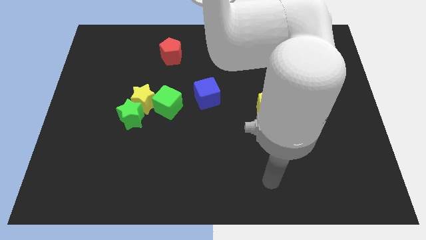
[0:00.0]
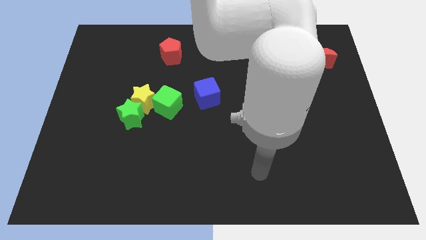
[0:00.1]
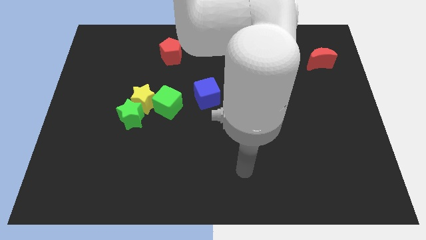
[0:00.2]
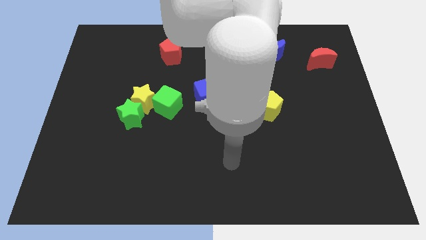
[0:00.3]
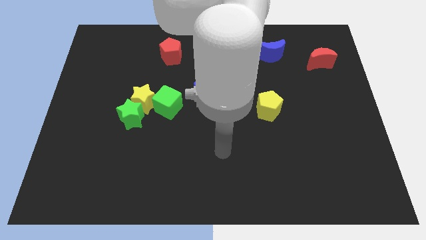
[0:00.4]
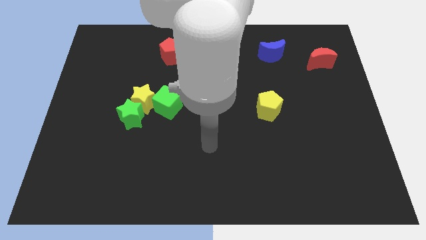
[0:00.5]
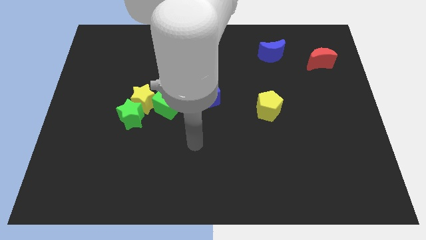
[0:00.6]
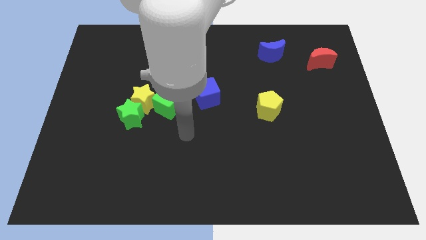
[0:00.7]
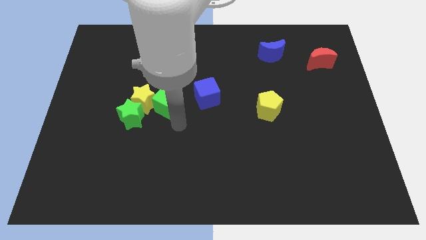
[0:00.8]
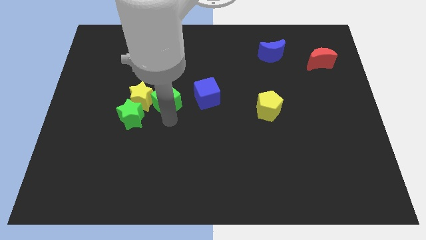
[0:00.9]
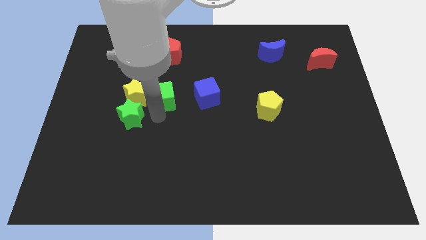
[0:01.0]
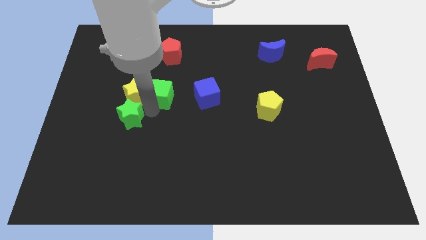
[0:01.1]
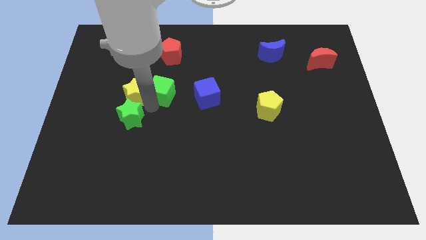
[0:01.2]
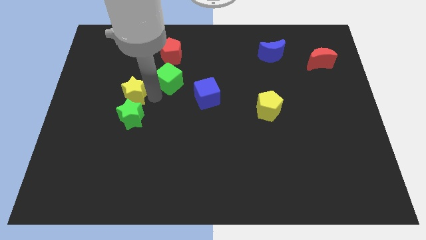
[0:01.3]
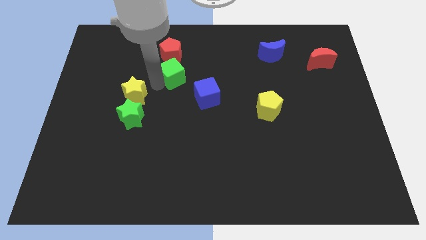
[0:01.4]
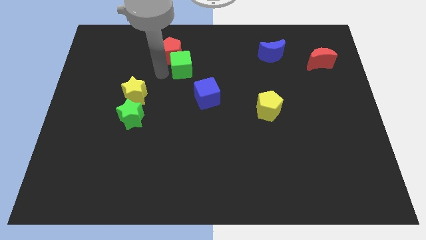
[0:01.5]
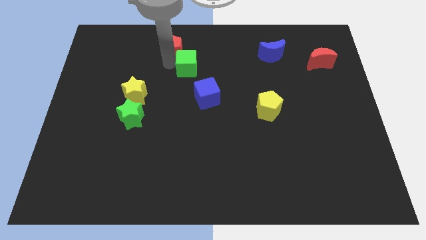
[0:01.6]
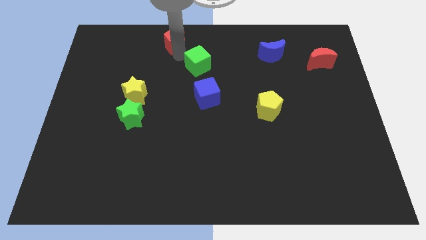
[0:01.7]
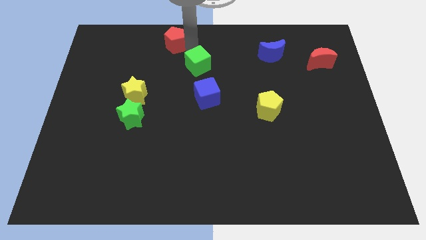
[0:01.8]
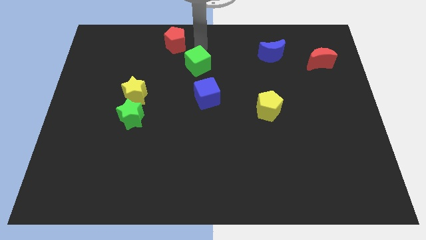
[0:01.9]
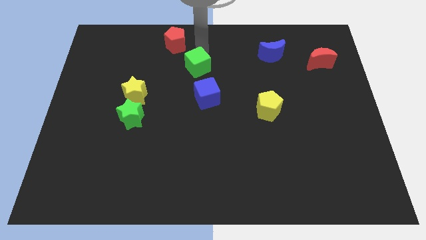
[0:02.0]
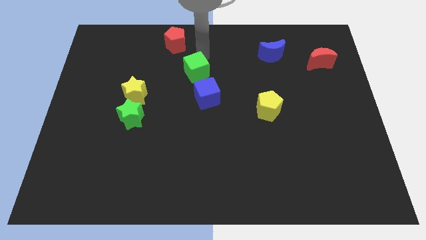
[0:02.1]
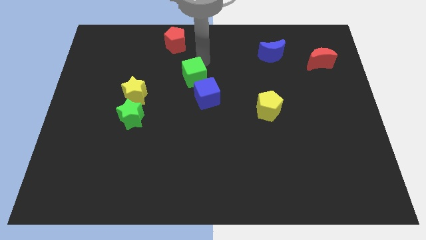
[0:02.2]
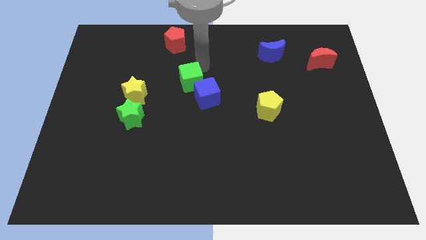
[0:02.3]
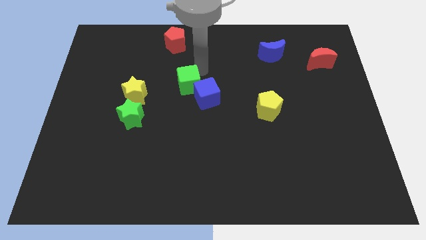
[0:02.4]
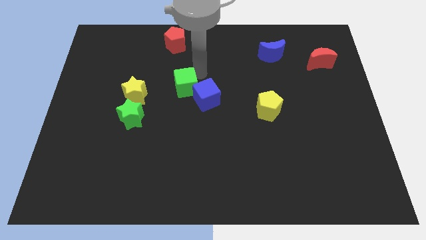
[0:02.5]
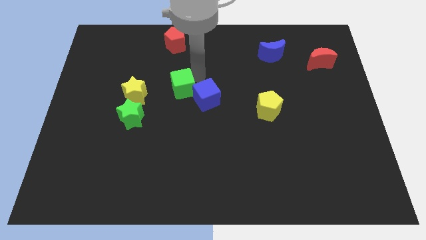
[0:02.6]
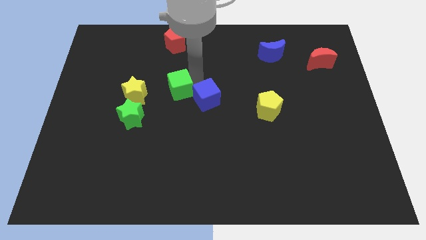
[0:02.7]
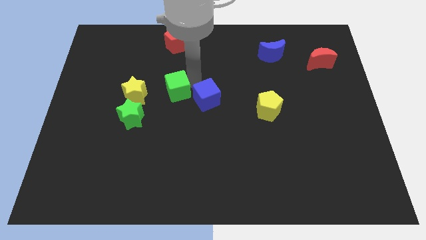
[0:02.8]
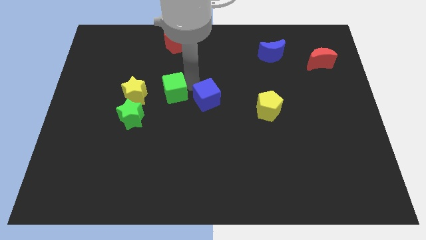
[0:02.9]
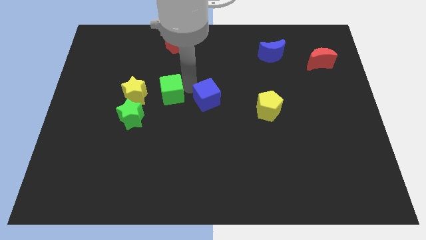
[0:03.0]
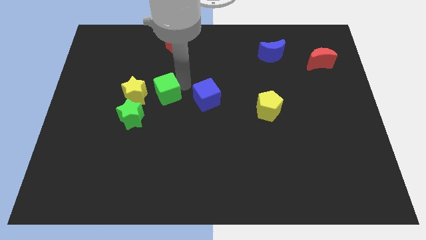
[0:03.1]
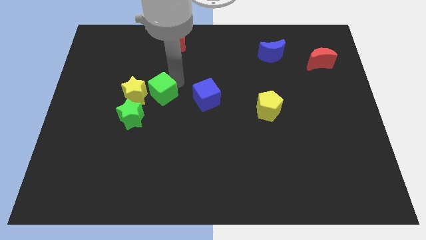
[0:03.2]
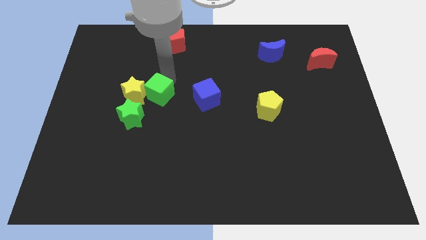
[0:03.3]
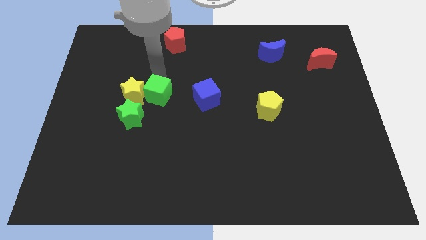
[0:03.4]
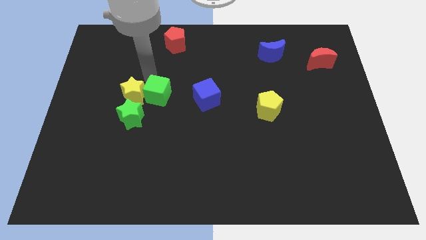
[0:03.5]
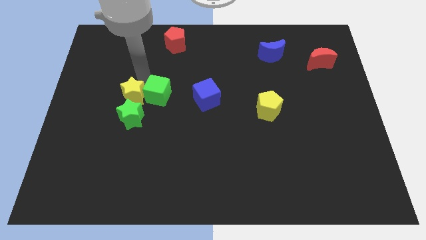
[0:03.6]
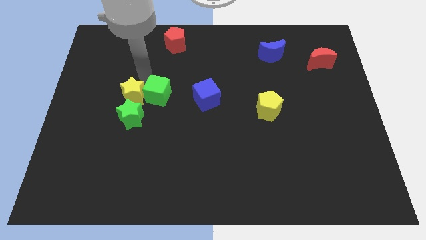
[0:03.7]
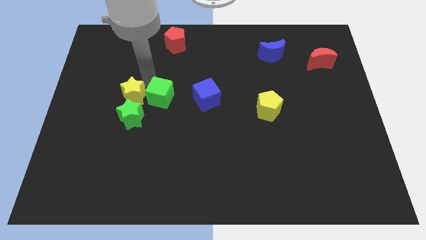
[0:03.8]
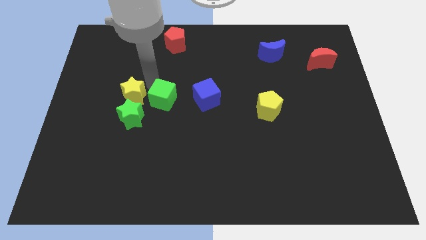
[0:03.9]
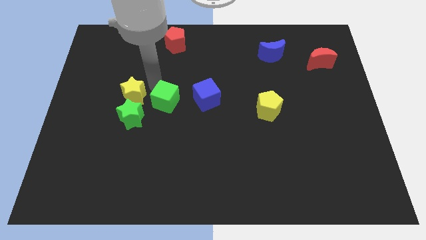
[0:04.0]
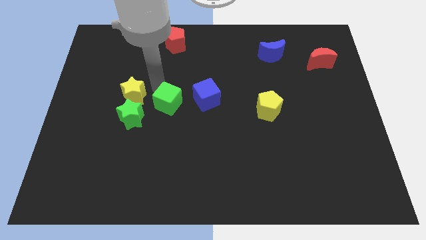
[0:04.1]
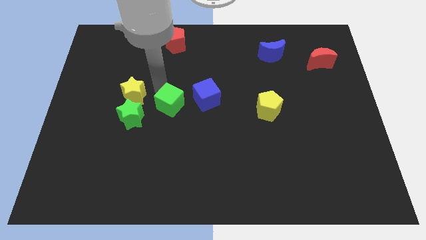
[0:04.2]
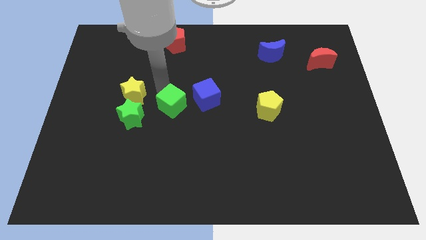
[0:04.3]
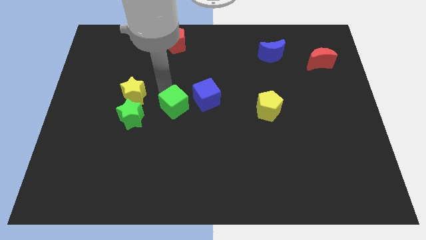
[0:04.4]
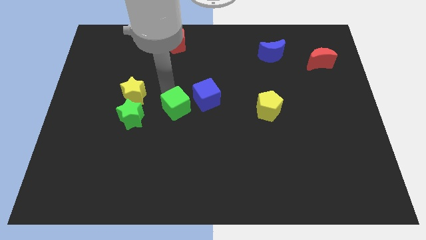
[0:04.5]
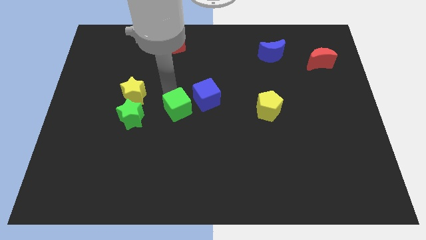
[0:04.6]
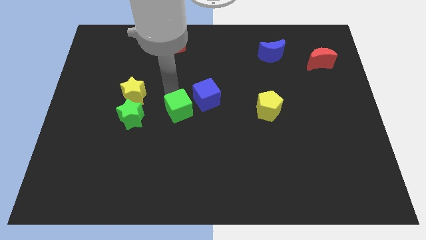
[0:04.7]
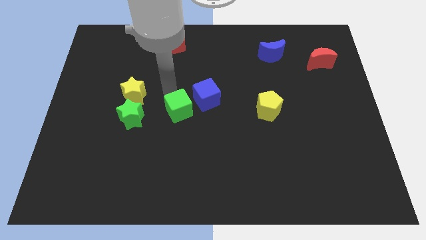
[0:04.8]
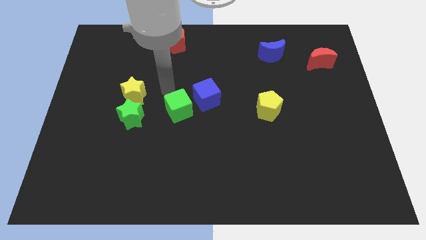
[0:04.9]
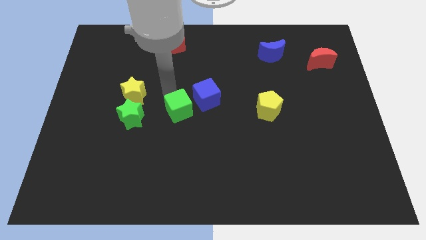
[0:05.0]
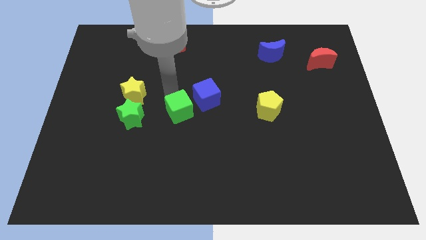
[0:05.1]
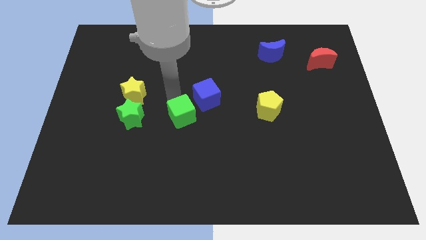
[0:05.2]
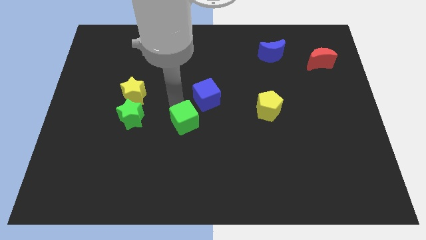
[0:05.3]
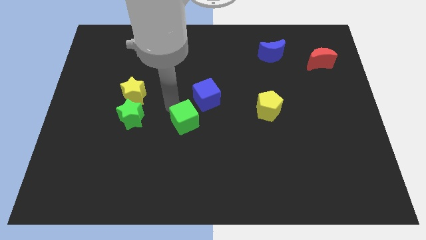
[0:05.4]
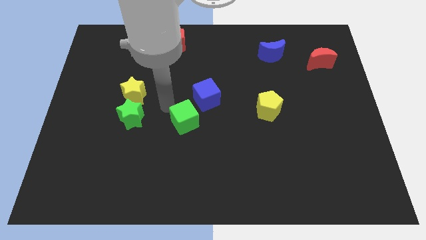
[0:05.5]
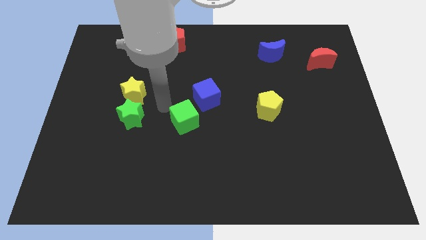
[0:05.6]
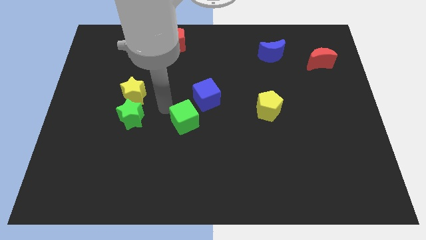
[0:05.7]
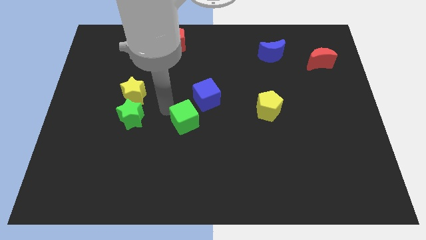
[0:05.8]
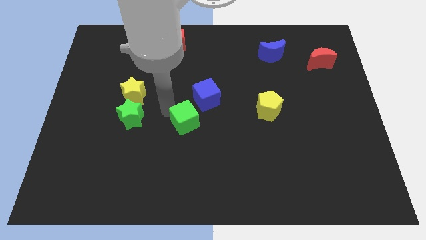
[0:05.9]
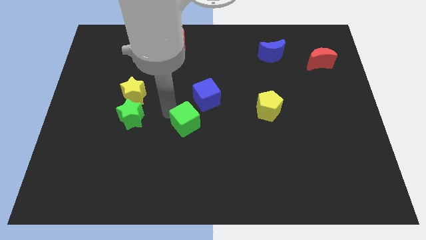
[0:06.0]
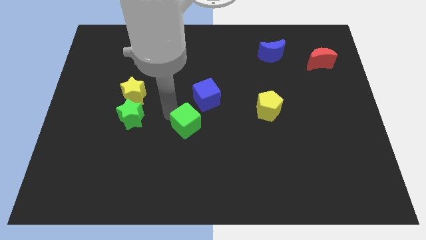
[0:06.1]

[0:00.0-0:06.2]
move the green cube a little bit downwards and right diagonally

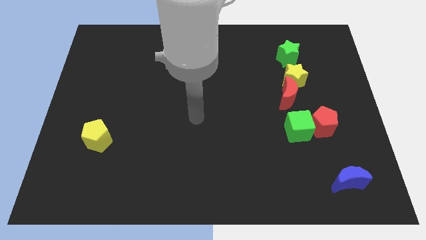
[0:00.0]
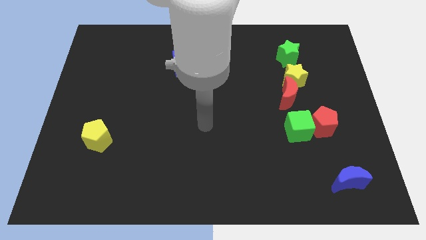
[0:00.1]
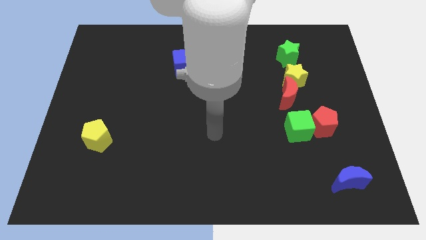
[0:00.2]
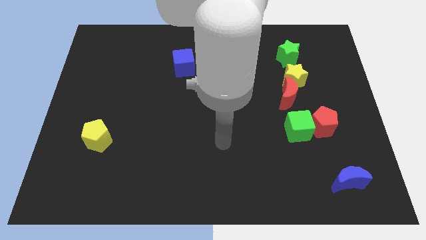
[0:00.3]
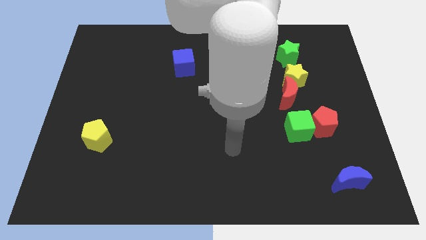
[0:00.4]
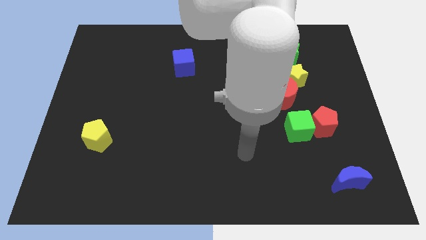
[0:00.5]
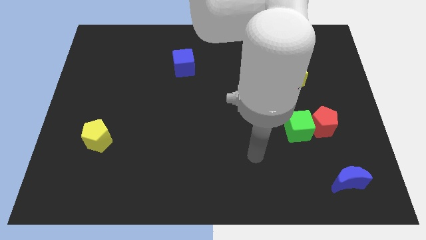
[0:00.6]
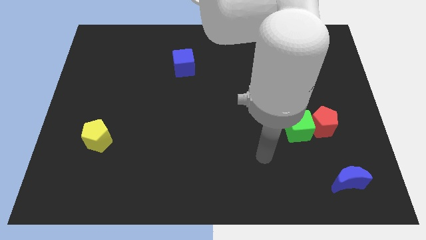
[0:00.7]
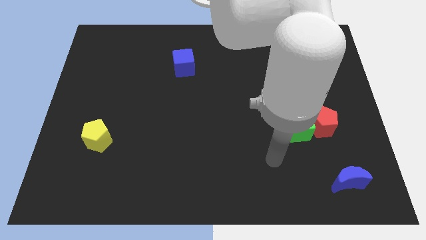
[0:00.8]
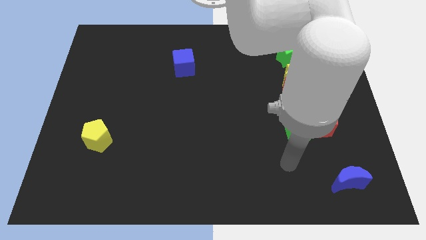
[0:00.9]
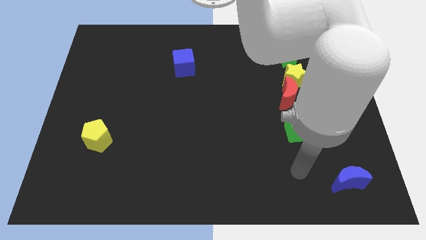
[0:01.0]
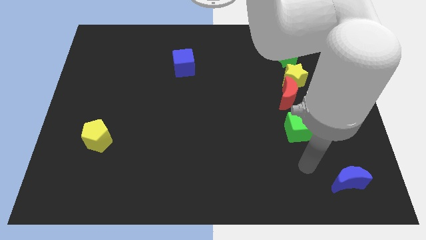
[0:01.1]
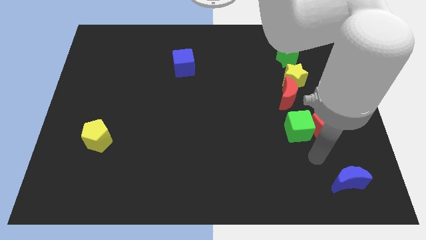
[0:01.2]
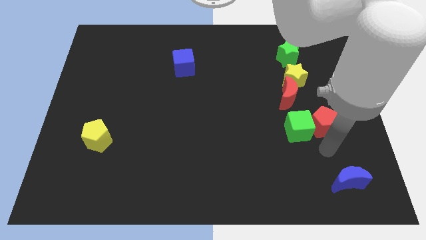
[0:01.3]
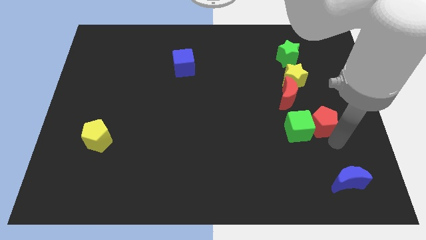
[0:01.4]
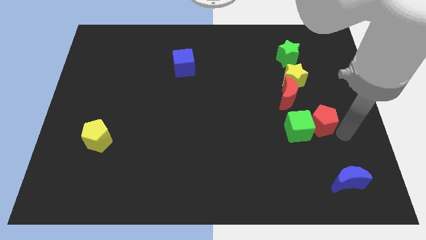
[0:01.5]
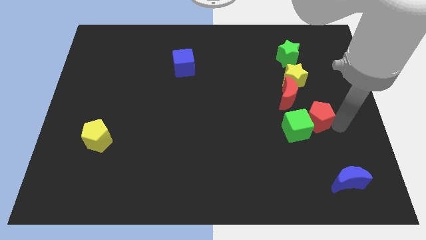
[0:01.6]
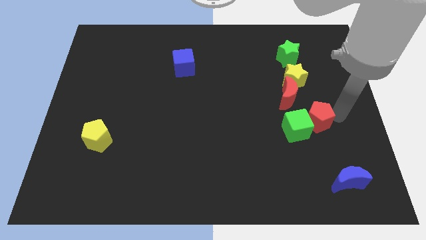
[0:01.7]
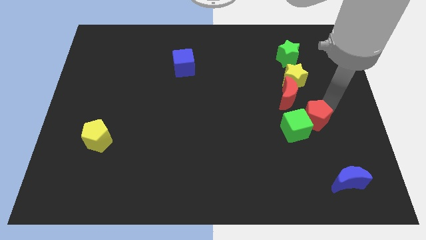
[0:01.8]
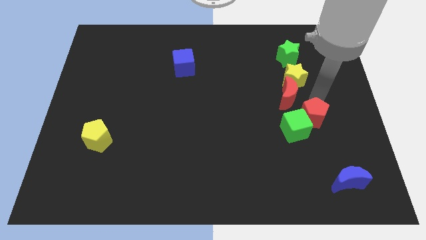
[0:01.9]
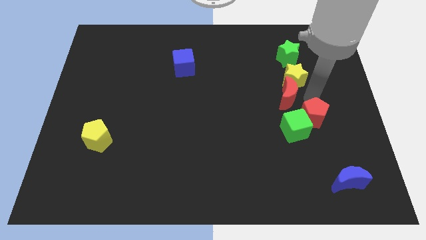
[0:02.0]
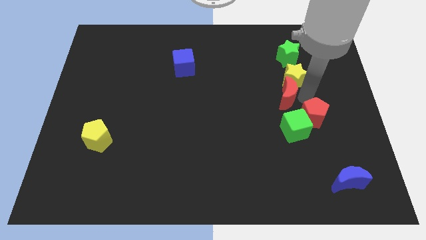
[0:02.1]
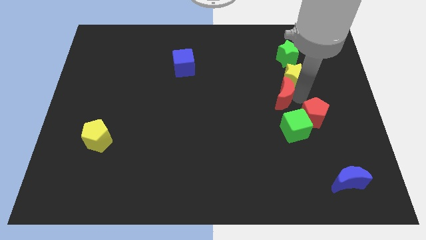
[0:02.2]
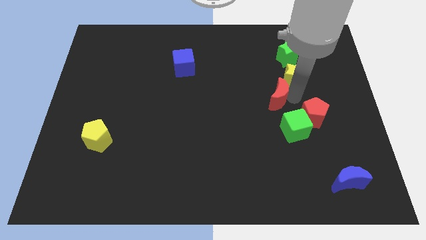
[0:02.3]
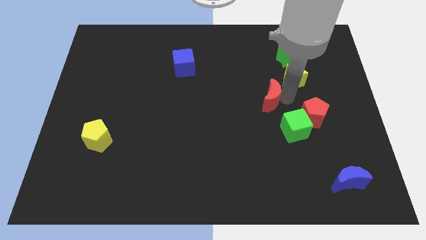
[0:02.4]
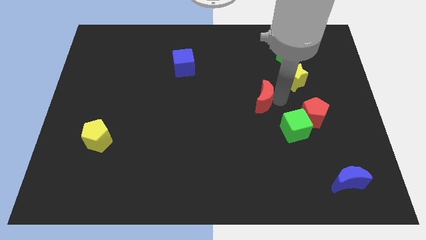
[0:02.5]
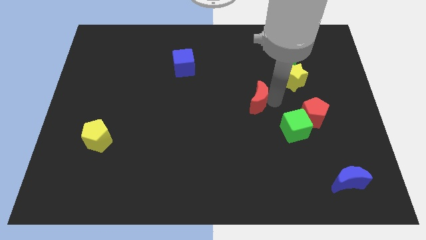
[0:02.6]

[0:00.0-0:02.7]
slightly move the red moon left
